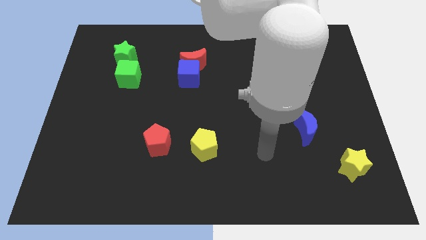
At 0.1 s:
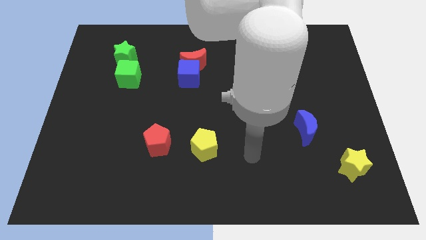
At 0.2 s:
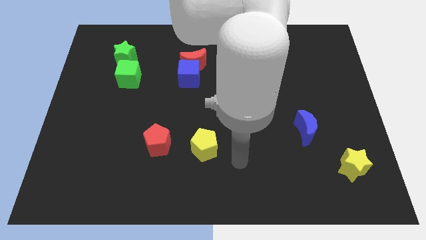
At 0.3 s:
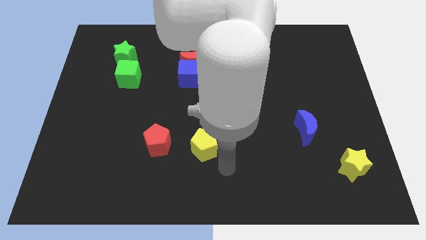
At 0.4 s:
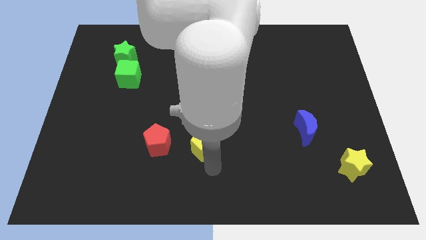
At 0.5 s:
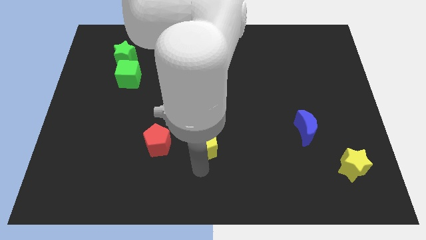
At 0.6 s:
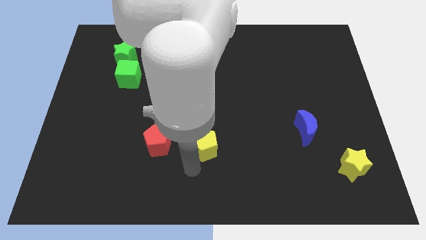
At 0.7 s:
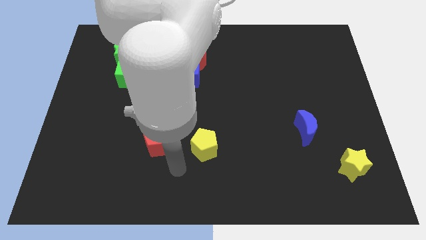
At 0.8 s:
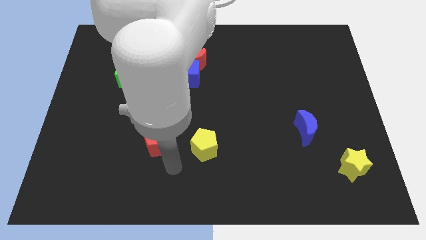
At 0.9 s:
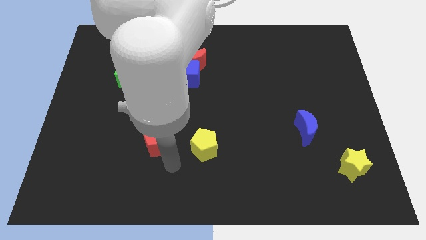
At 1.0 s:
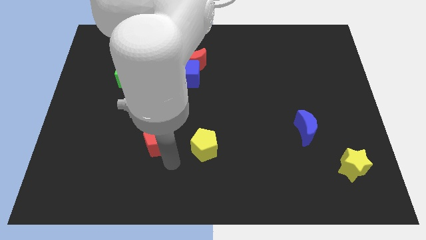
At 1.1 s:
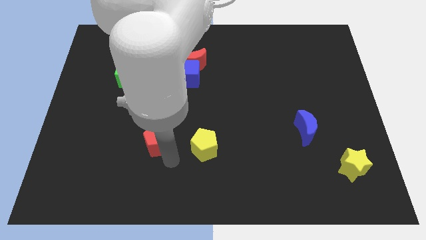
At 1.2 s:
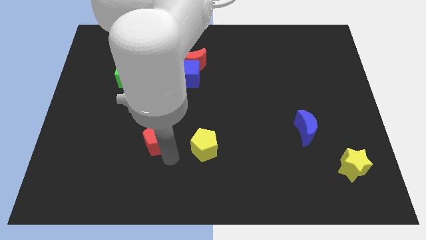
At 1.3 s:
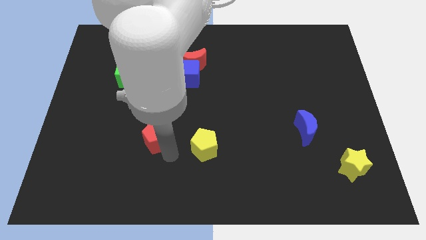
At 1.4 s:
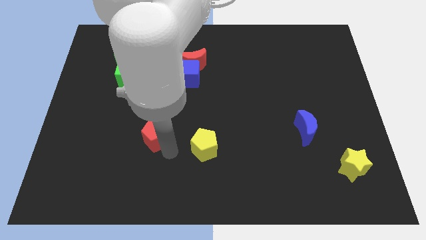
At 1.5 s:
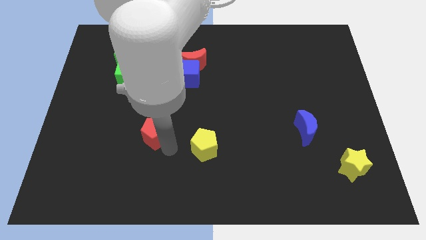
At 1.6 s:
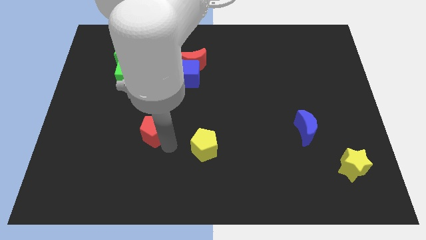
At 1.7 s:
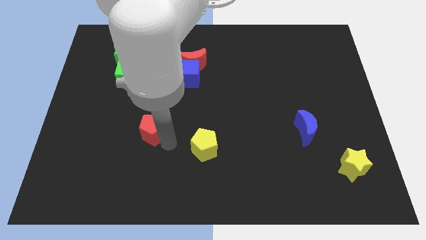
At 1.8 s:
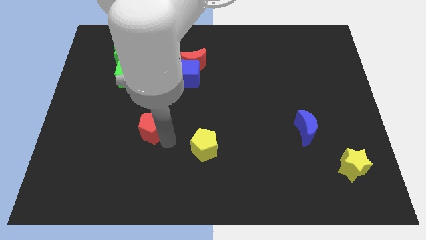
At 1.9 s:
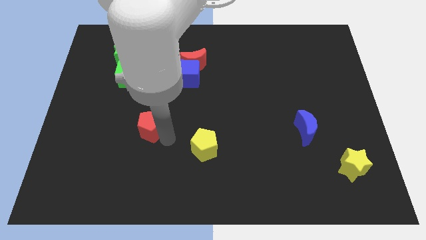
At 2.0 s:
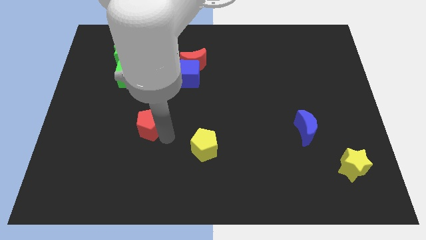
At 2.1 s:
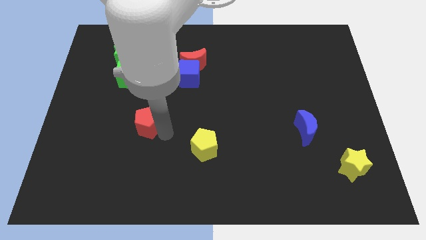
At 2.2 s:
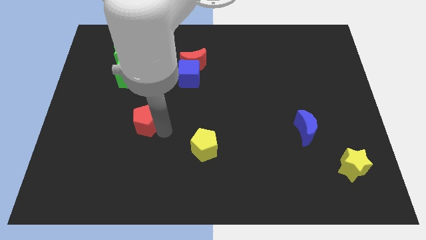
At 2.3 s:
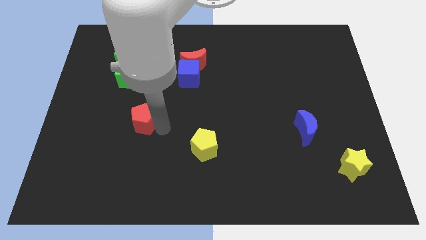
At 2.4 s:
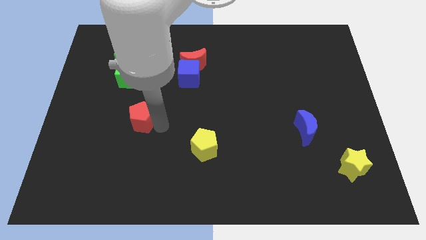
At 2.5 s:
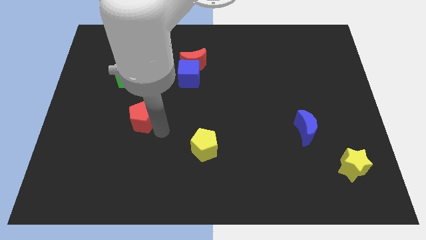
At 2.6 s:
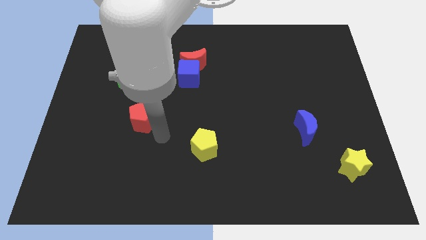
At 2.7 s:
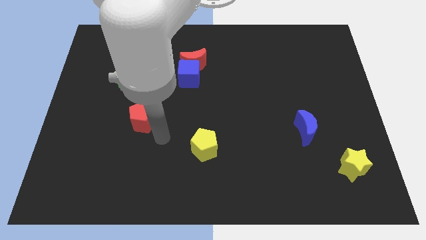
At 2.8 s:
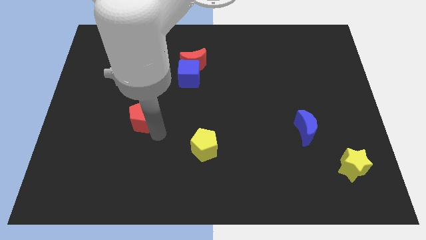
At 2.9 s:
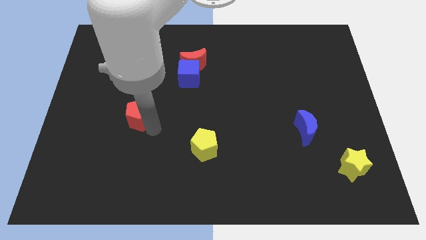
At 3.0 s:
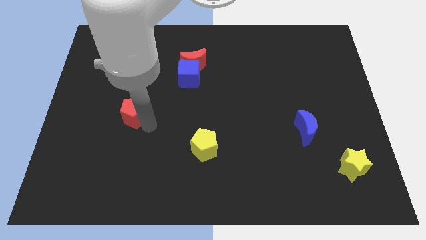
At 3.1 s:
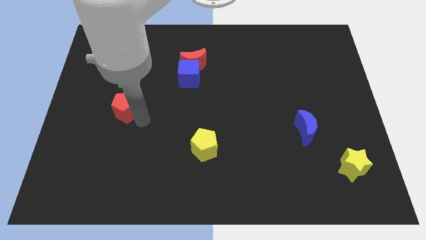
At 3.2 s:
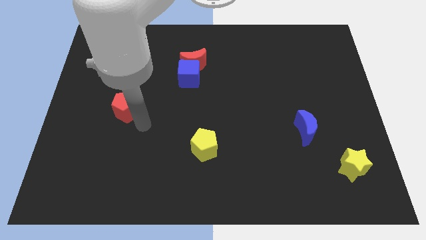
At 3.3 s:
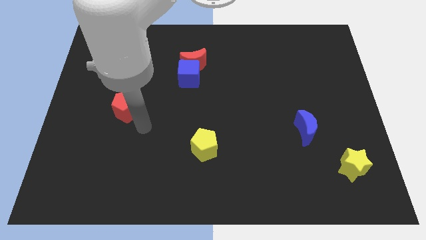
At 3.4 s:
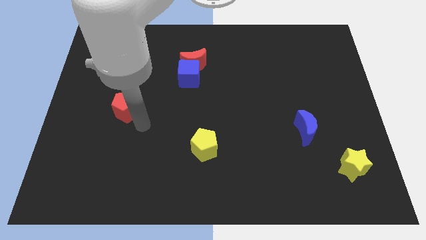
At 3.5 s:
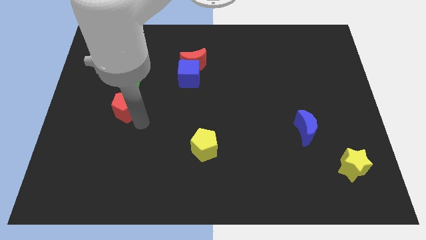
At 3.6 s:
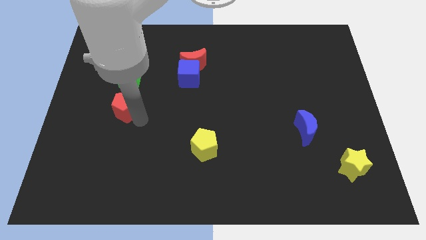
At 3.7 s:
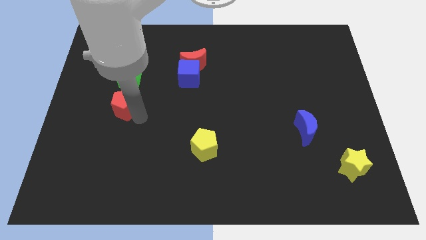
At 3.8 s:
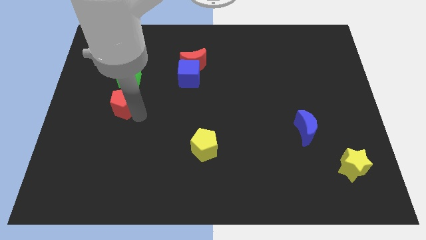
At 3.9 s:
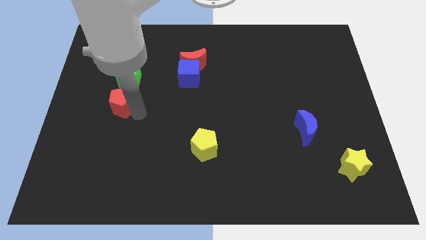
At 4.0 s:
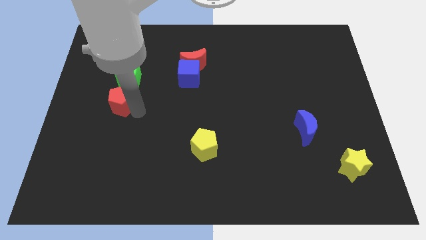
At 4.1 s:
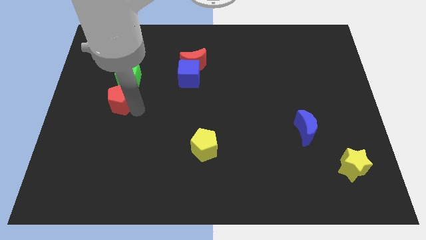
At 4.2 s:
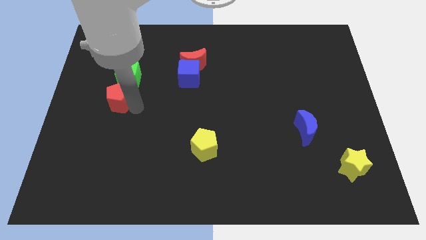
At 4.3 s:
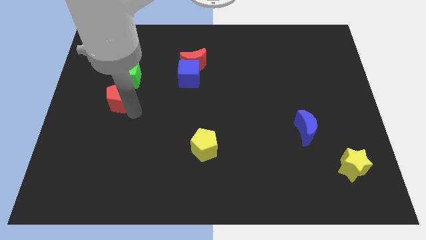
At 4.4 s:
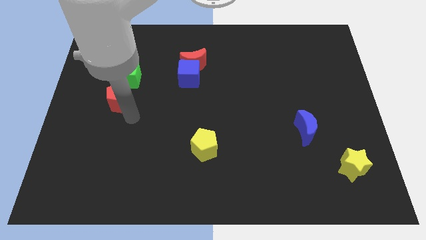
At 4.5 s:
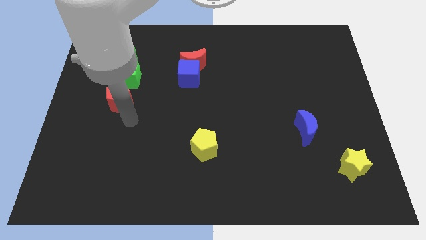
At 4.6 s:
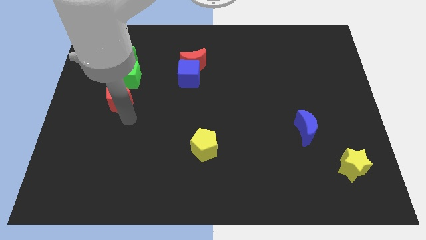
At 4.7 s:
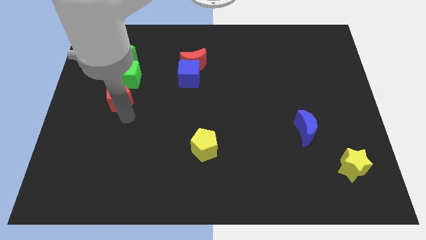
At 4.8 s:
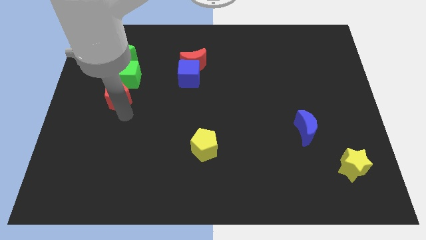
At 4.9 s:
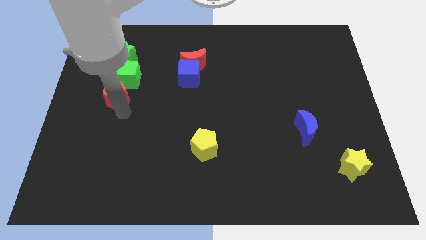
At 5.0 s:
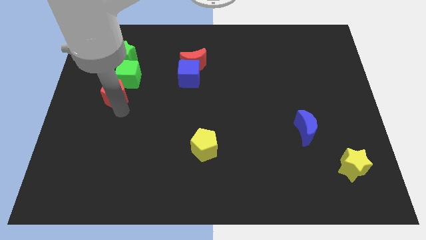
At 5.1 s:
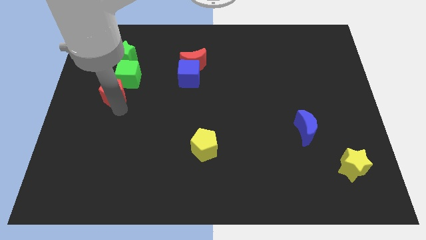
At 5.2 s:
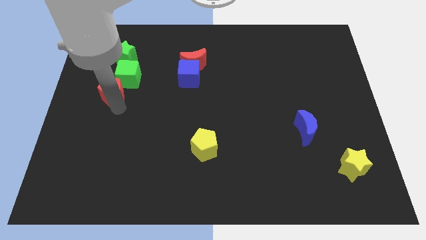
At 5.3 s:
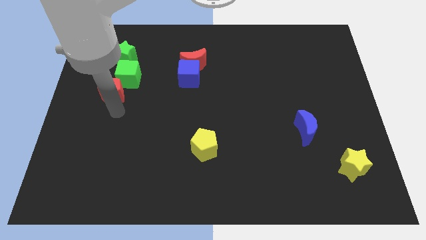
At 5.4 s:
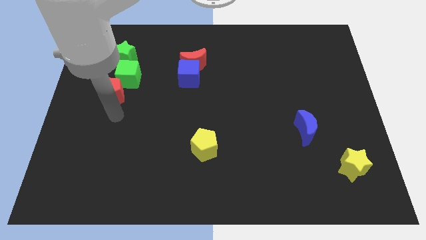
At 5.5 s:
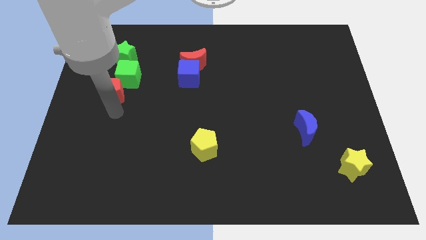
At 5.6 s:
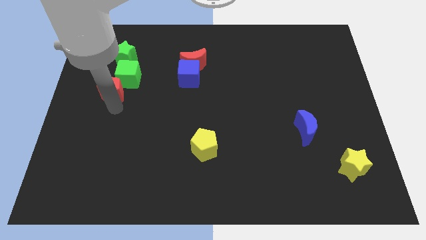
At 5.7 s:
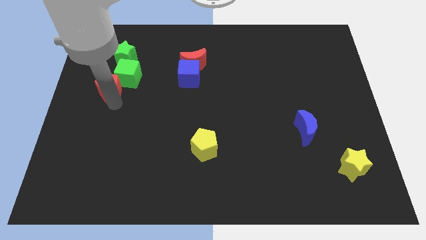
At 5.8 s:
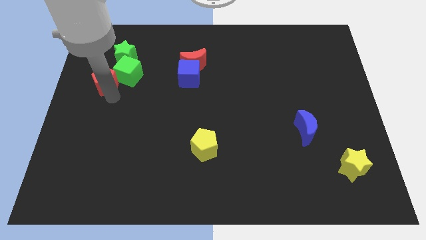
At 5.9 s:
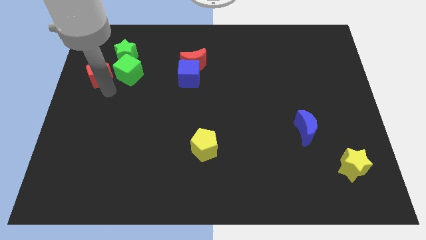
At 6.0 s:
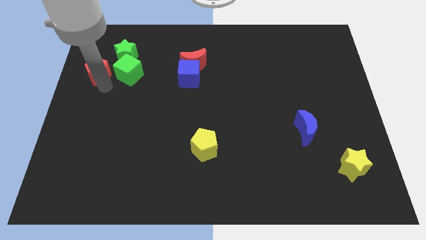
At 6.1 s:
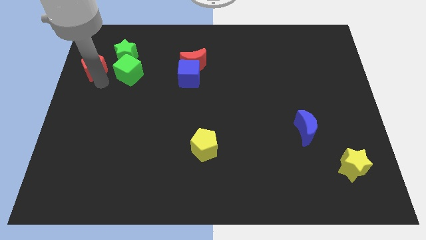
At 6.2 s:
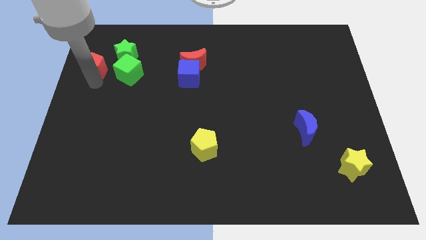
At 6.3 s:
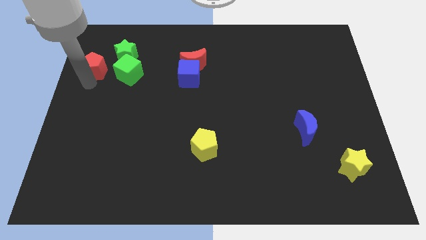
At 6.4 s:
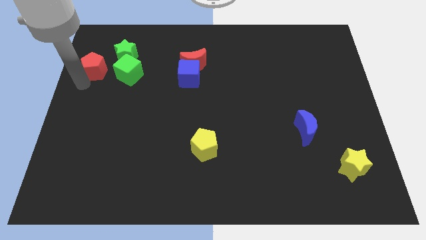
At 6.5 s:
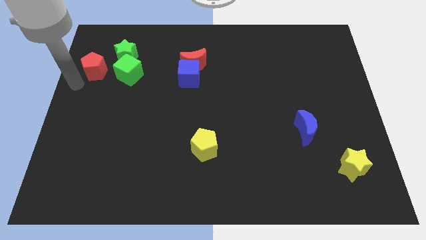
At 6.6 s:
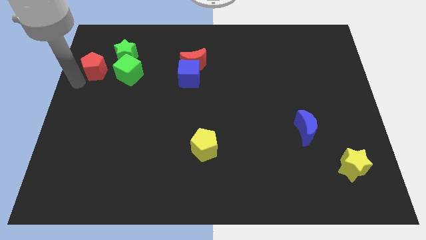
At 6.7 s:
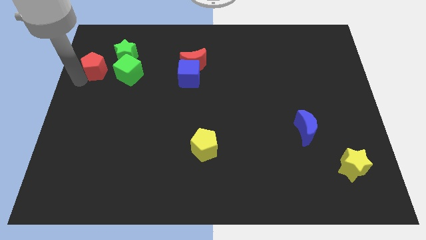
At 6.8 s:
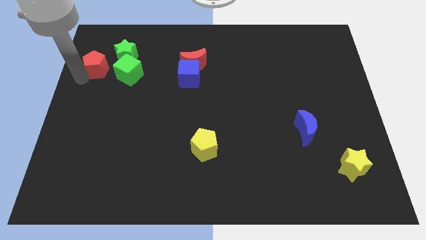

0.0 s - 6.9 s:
push the red pentagon to the top left side of the green cube
